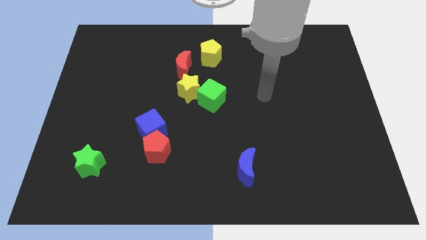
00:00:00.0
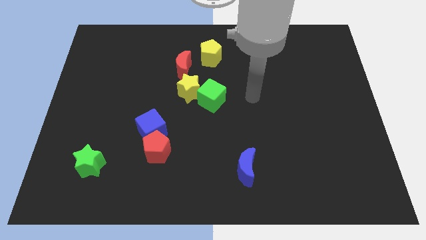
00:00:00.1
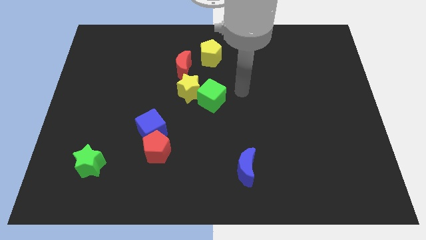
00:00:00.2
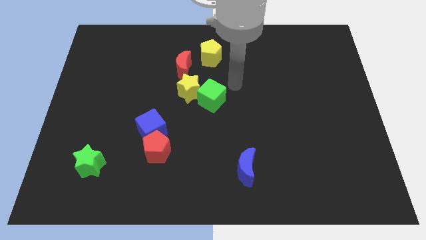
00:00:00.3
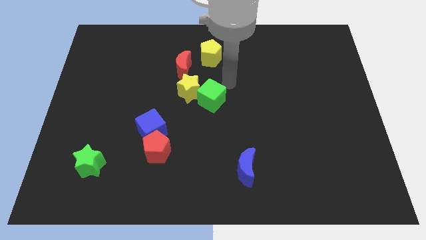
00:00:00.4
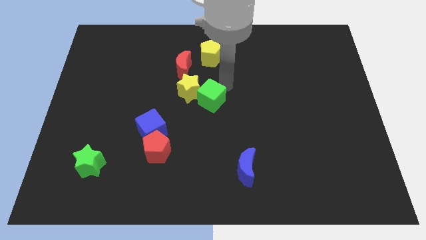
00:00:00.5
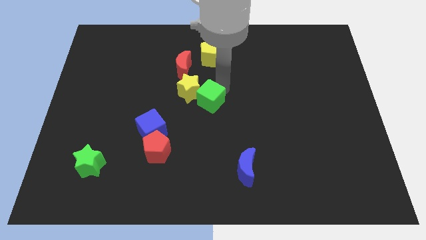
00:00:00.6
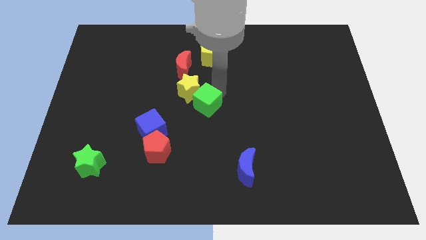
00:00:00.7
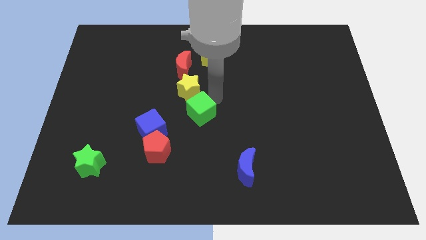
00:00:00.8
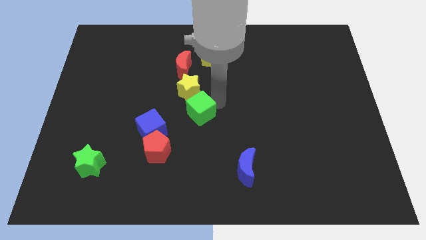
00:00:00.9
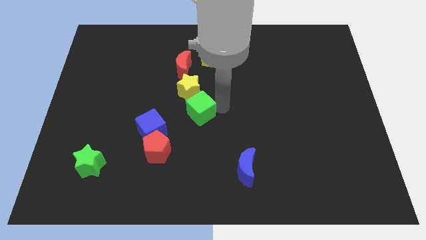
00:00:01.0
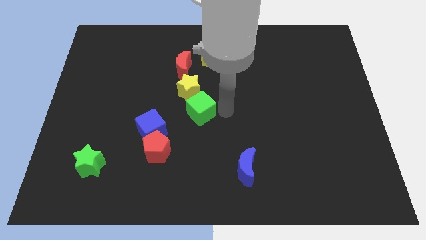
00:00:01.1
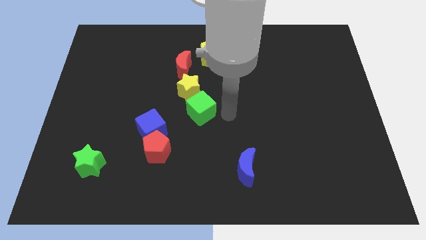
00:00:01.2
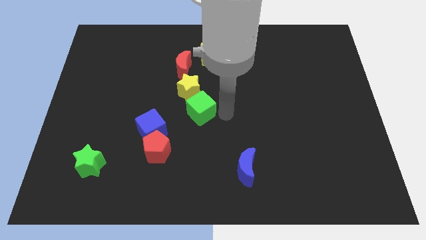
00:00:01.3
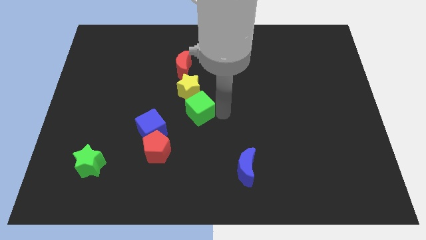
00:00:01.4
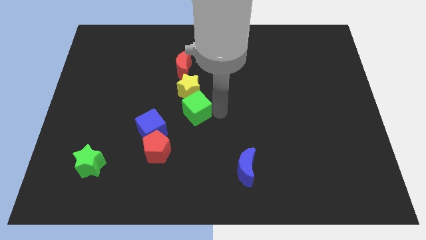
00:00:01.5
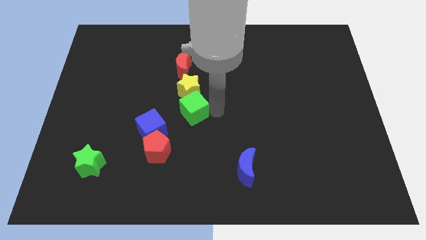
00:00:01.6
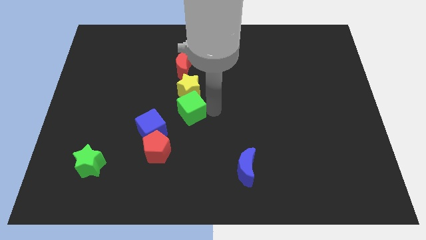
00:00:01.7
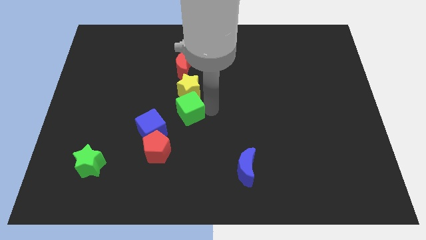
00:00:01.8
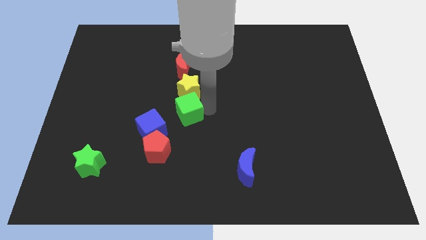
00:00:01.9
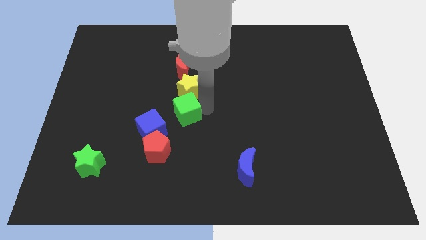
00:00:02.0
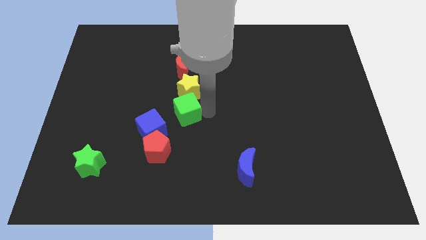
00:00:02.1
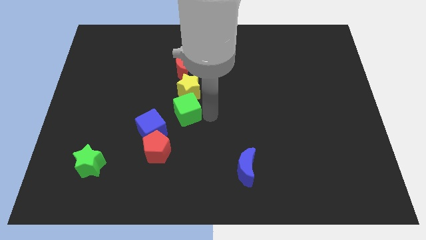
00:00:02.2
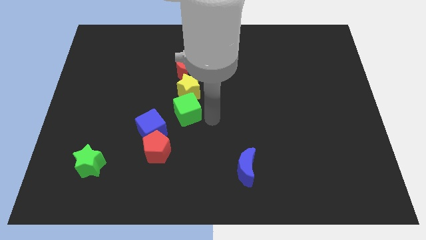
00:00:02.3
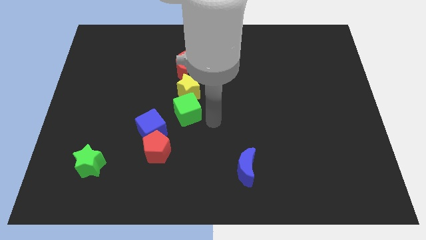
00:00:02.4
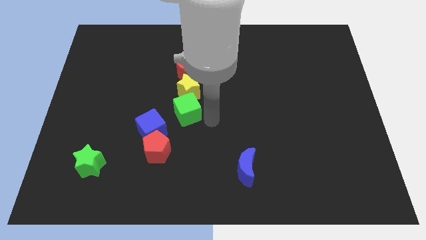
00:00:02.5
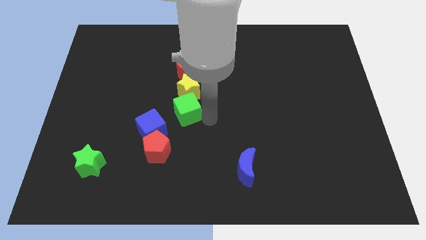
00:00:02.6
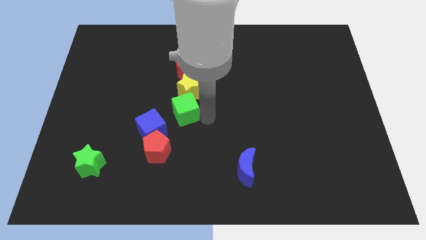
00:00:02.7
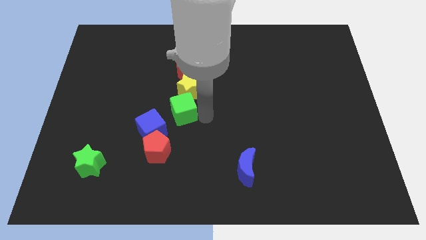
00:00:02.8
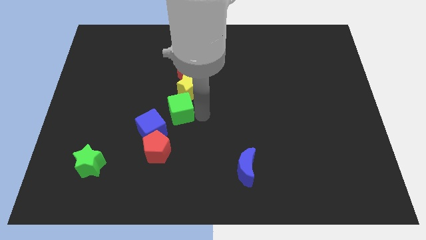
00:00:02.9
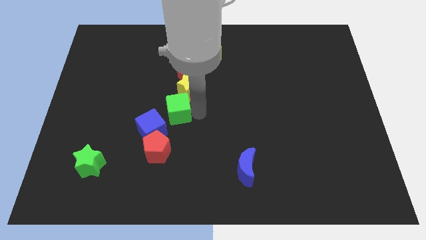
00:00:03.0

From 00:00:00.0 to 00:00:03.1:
slide the green cube to the left somewhat

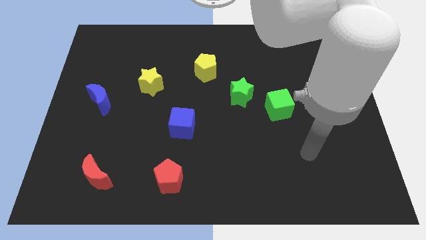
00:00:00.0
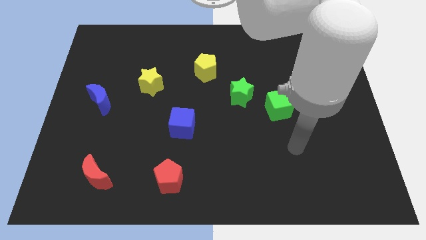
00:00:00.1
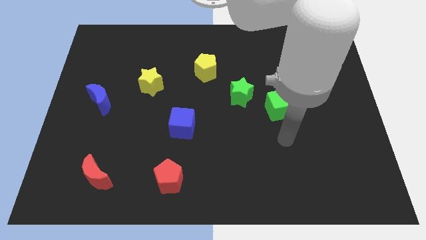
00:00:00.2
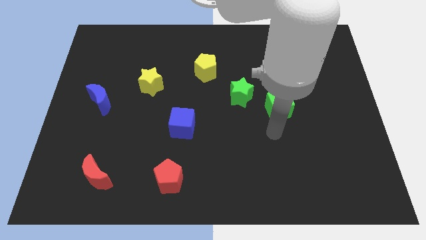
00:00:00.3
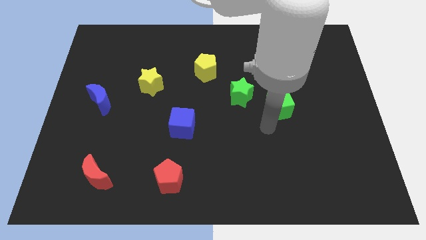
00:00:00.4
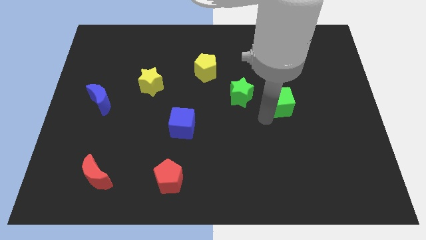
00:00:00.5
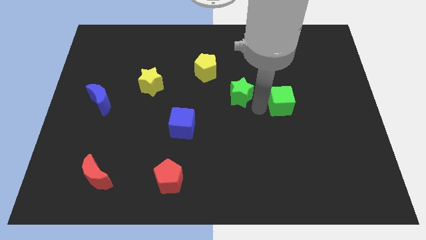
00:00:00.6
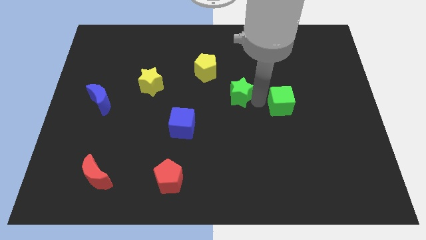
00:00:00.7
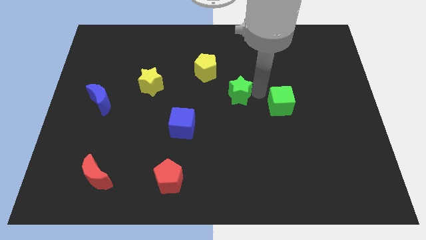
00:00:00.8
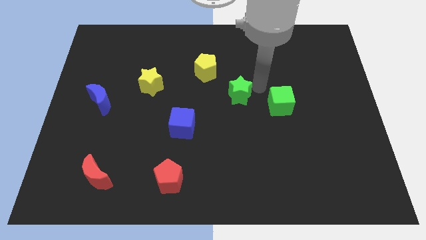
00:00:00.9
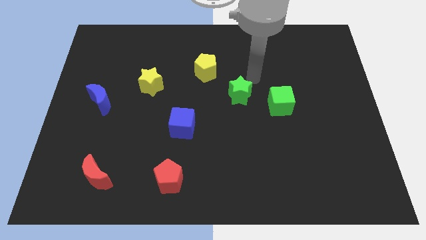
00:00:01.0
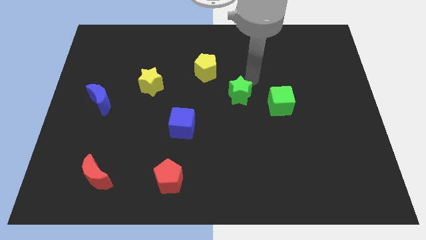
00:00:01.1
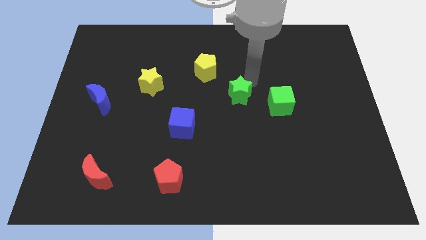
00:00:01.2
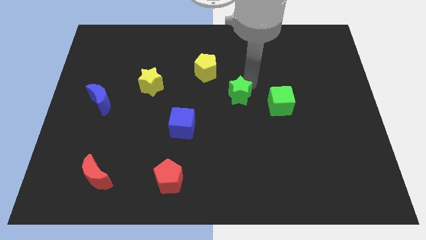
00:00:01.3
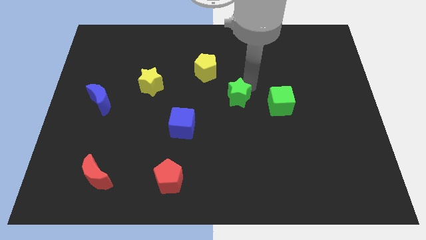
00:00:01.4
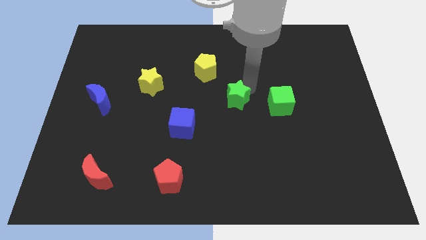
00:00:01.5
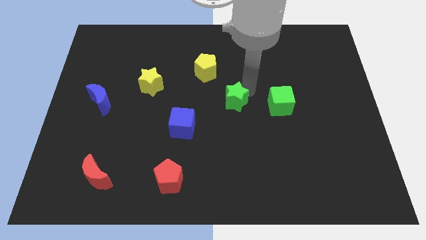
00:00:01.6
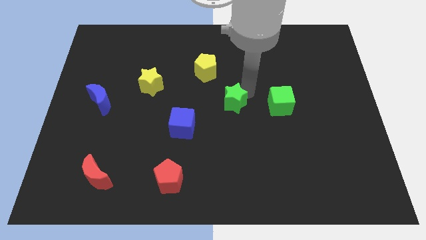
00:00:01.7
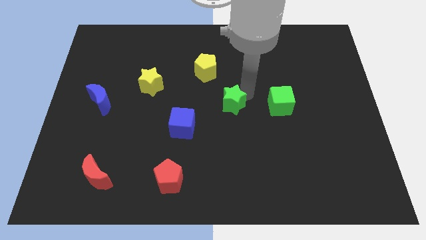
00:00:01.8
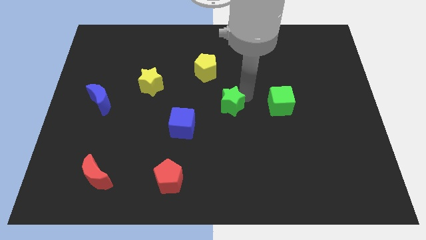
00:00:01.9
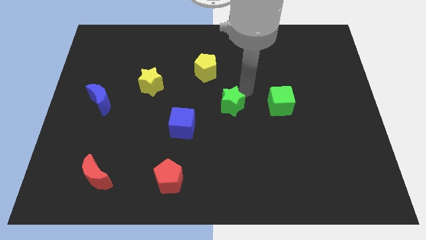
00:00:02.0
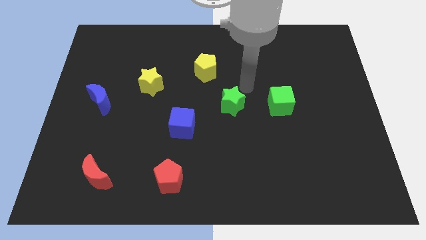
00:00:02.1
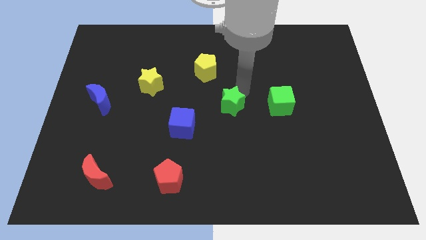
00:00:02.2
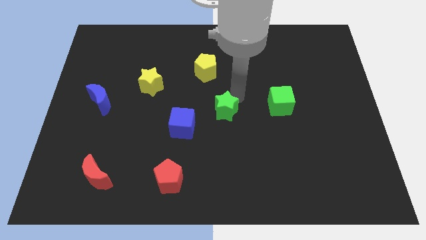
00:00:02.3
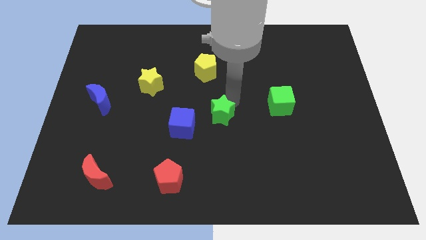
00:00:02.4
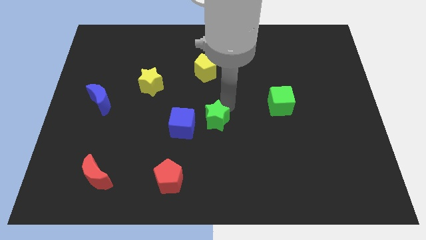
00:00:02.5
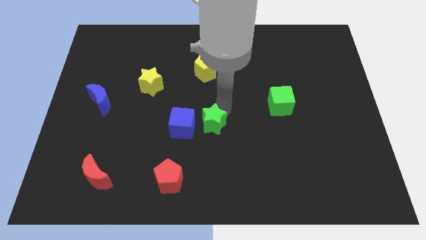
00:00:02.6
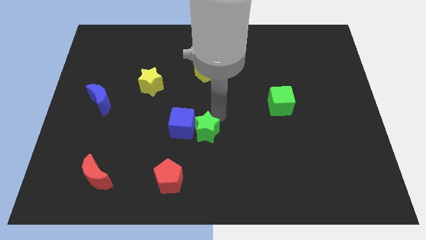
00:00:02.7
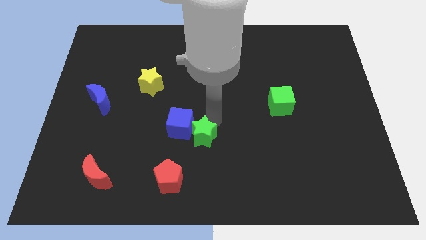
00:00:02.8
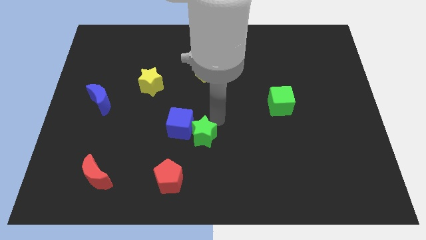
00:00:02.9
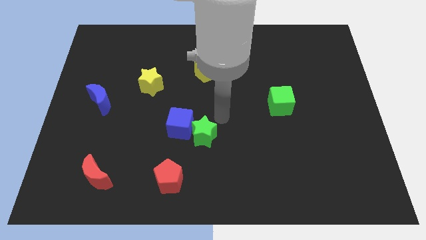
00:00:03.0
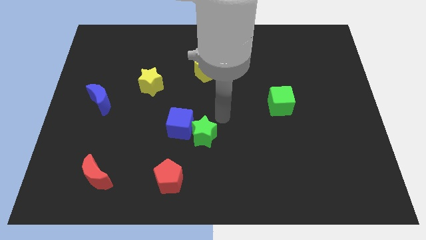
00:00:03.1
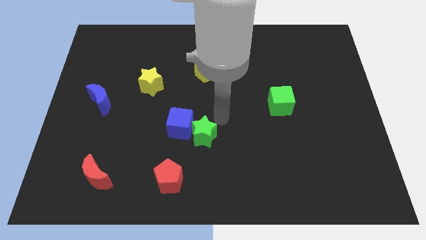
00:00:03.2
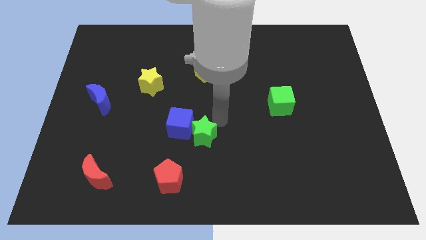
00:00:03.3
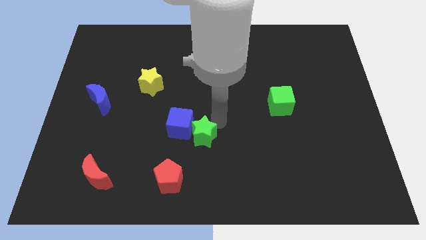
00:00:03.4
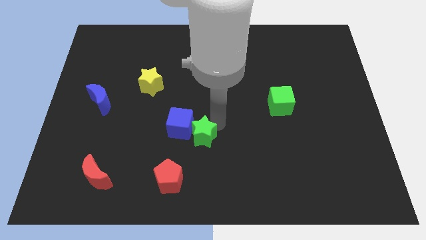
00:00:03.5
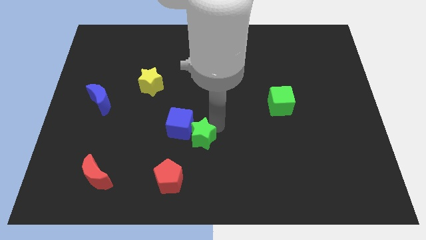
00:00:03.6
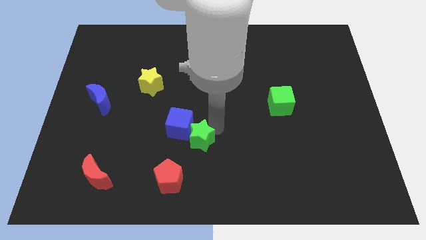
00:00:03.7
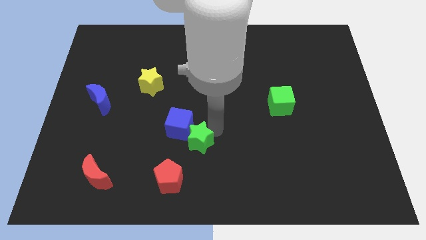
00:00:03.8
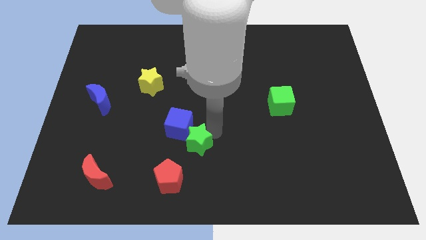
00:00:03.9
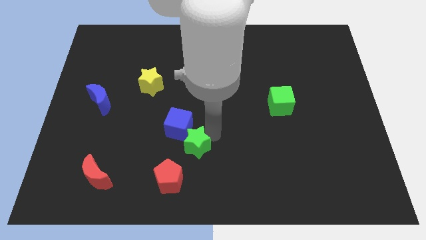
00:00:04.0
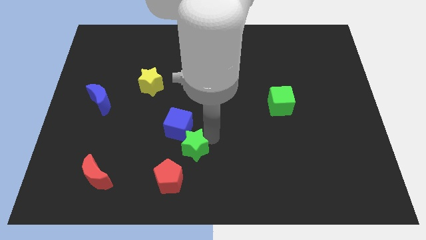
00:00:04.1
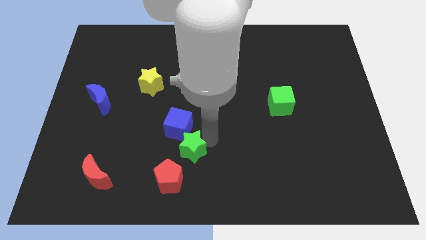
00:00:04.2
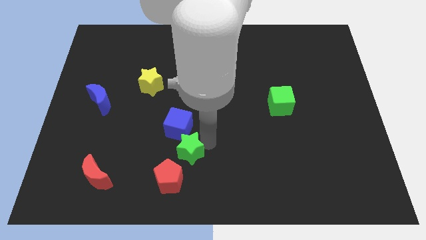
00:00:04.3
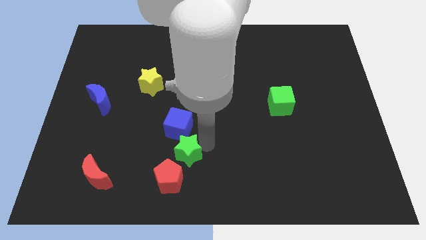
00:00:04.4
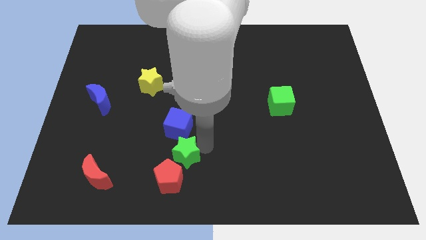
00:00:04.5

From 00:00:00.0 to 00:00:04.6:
push the green star diagonally downwards and left

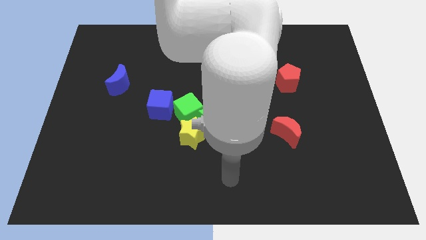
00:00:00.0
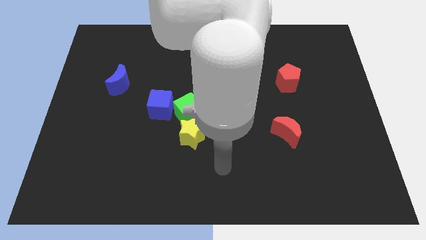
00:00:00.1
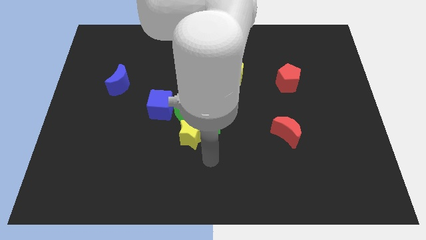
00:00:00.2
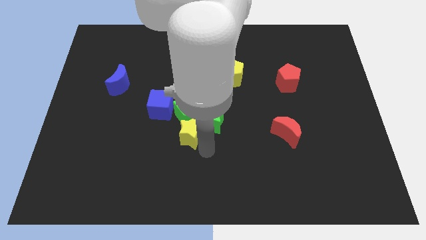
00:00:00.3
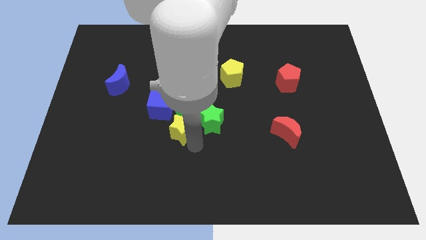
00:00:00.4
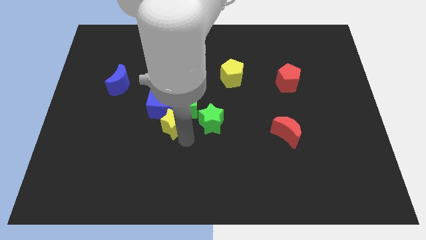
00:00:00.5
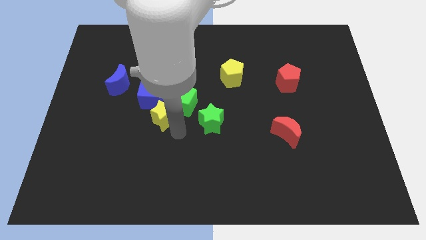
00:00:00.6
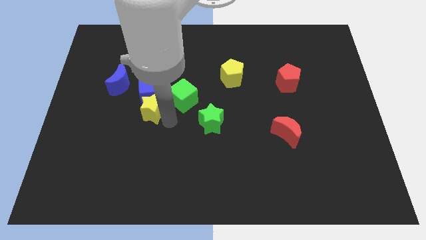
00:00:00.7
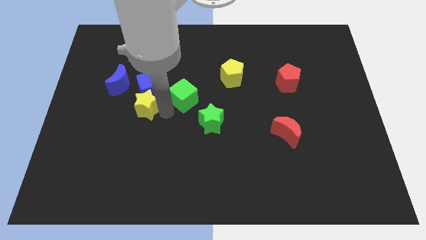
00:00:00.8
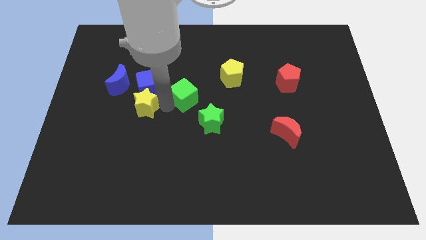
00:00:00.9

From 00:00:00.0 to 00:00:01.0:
push the blue cube up and left somewhat
